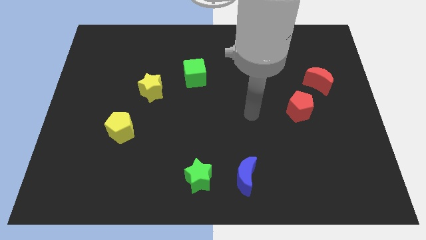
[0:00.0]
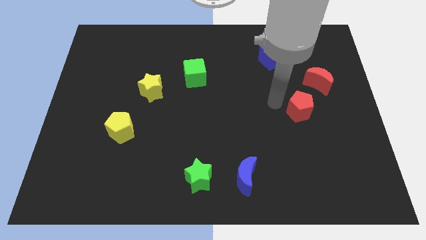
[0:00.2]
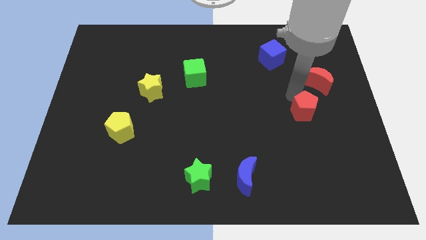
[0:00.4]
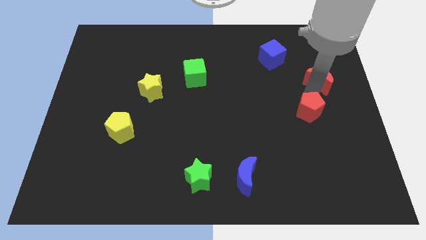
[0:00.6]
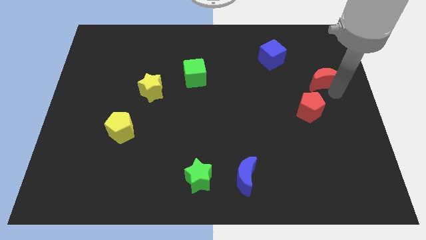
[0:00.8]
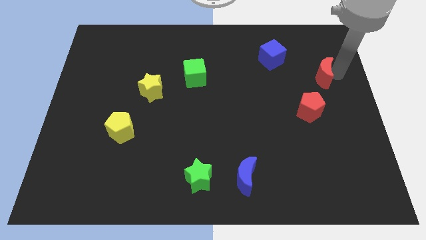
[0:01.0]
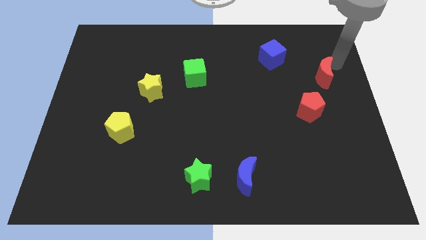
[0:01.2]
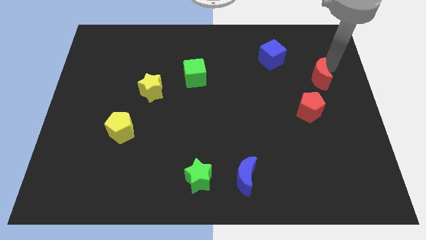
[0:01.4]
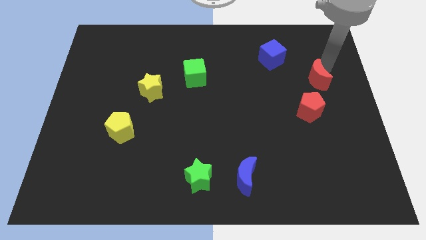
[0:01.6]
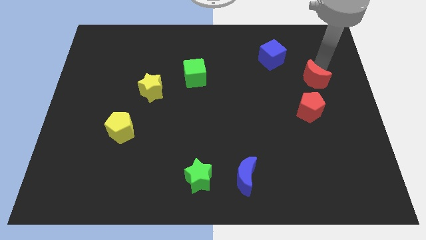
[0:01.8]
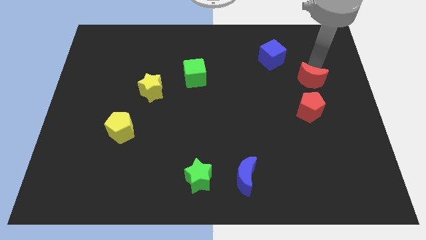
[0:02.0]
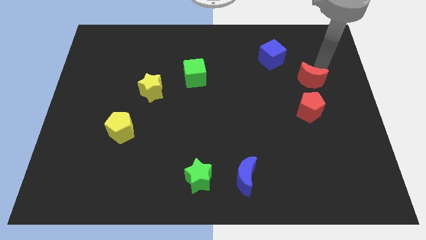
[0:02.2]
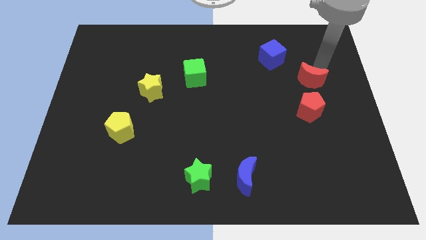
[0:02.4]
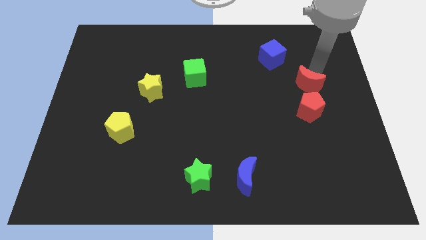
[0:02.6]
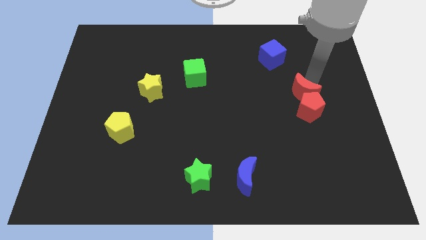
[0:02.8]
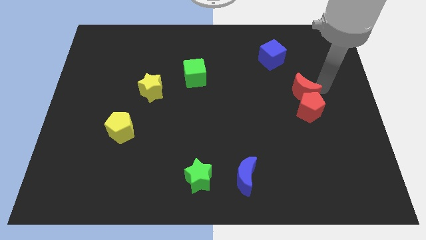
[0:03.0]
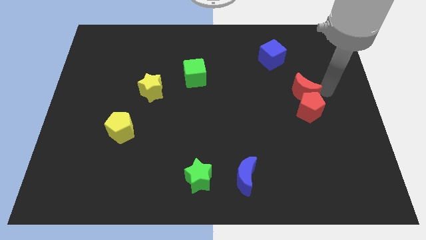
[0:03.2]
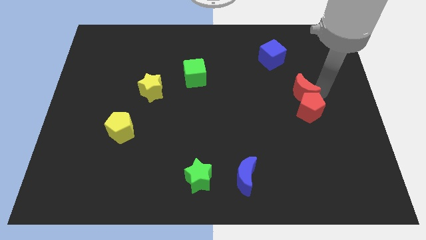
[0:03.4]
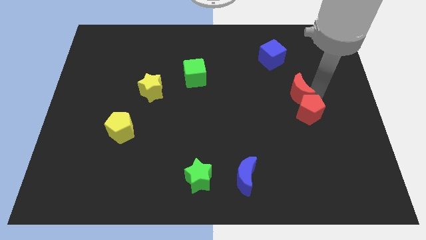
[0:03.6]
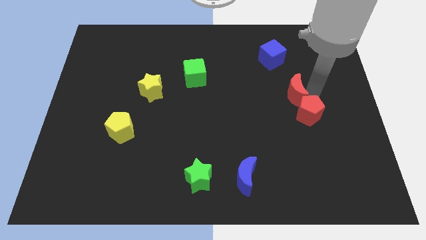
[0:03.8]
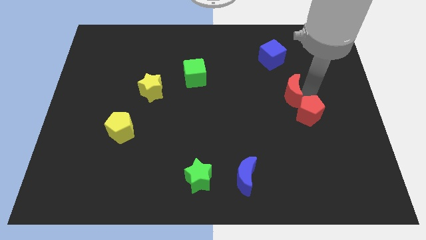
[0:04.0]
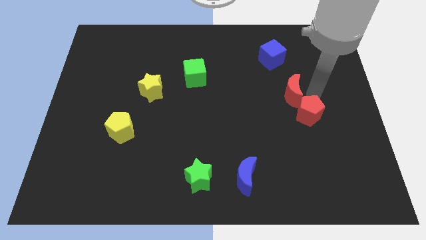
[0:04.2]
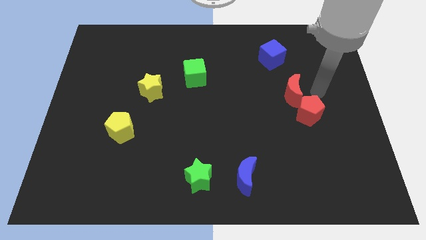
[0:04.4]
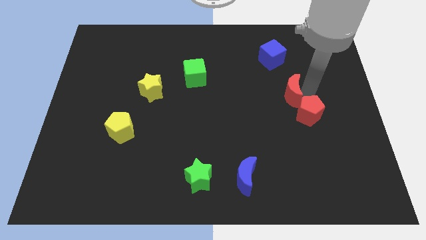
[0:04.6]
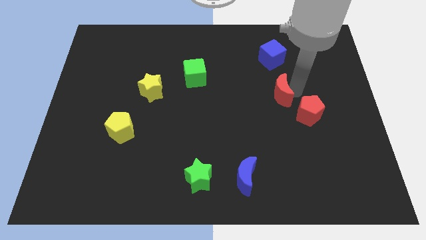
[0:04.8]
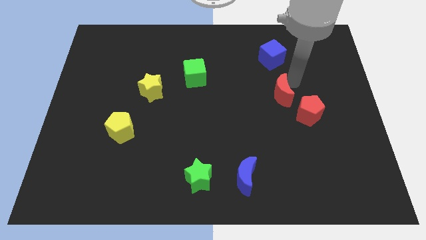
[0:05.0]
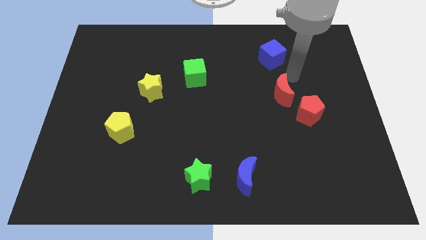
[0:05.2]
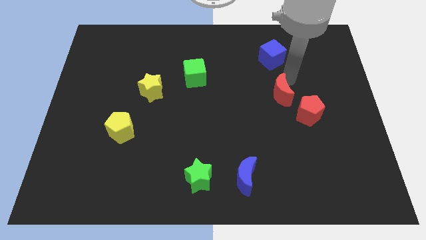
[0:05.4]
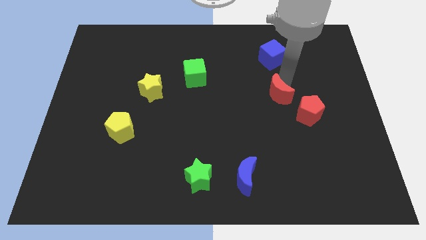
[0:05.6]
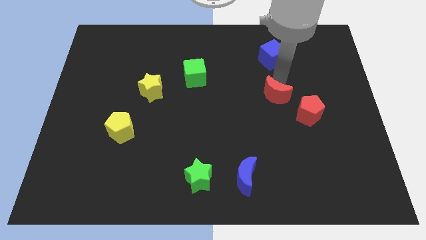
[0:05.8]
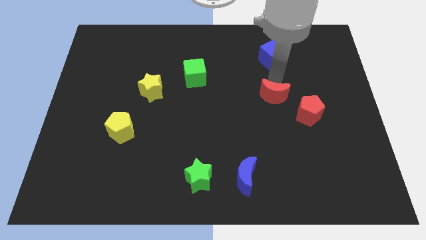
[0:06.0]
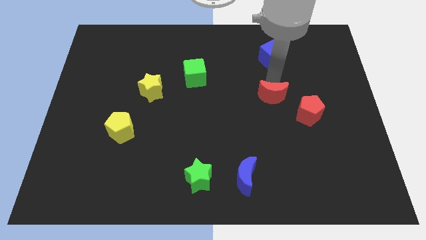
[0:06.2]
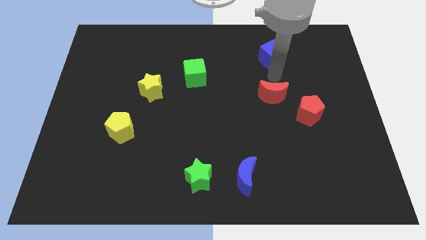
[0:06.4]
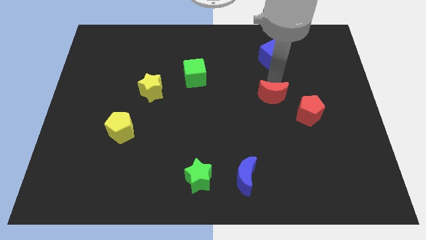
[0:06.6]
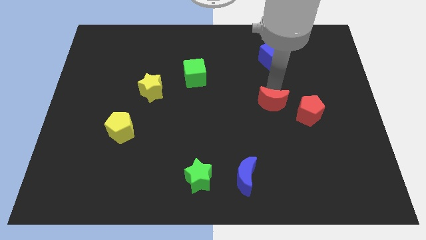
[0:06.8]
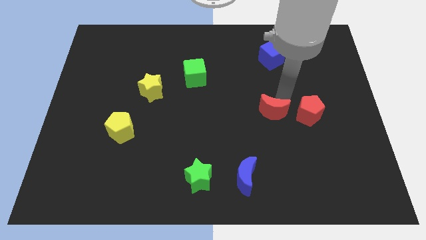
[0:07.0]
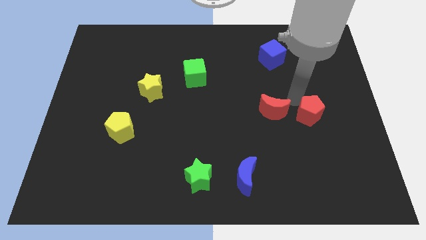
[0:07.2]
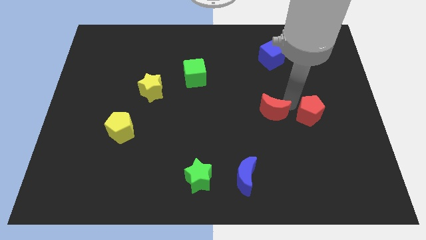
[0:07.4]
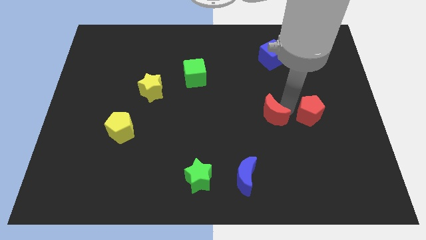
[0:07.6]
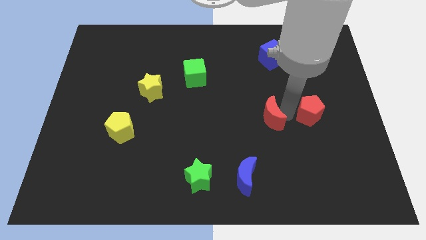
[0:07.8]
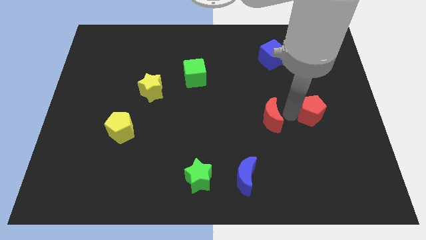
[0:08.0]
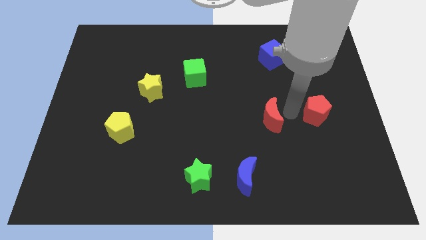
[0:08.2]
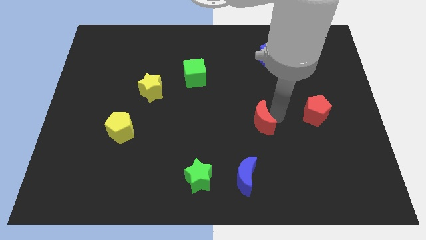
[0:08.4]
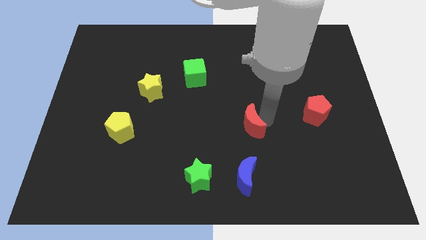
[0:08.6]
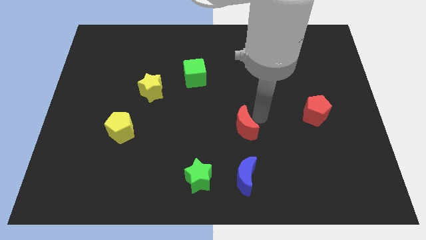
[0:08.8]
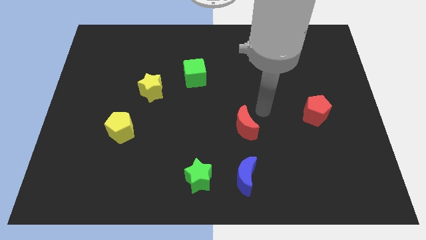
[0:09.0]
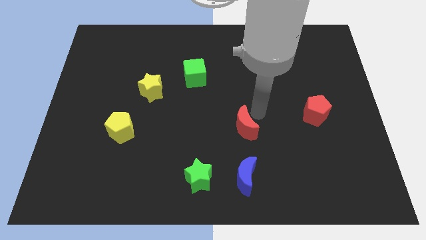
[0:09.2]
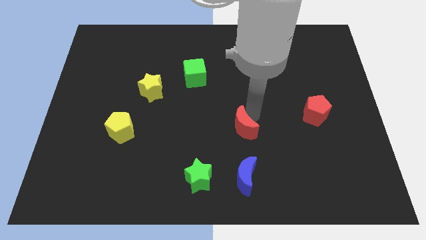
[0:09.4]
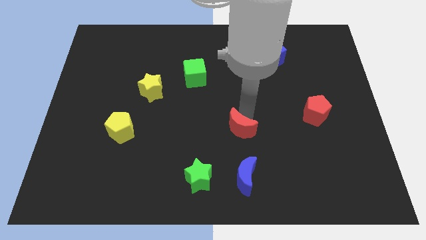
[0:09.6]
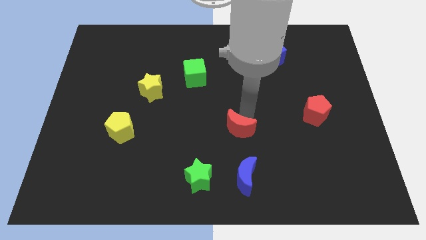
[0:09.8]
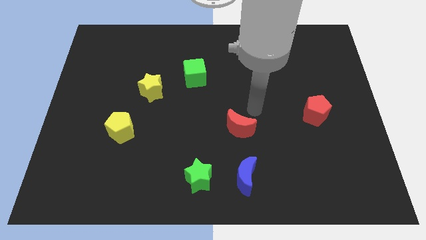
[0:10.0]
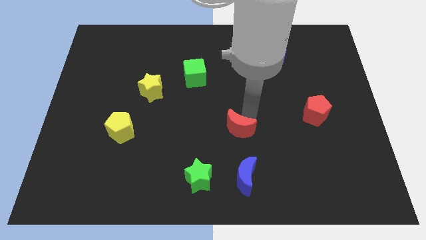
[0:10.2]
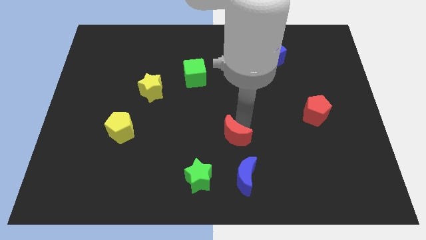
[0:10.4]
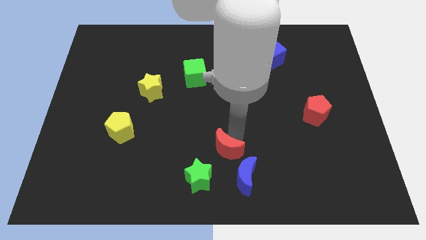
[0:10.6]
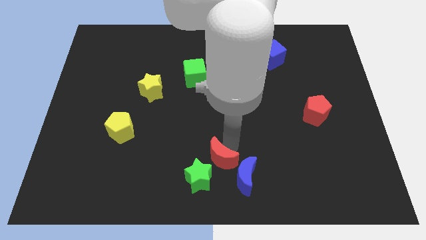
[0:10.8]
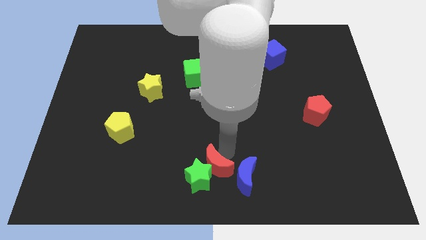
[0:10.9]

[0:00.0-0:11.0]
move the red moon to the green star

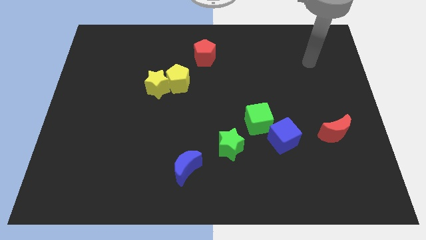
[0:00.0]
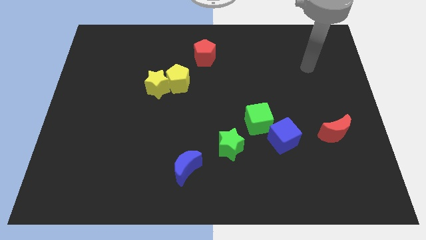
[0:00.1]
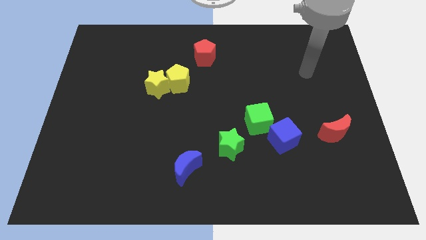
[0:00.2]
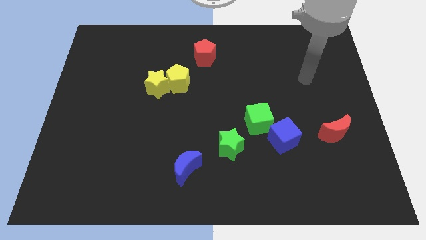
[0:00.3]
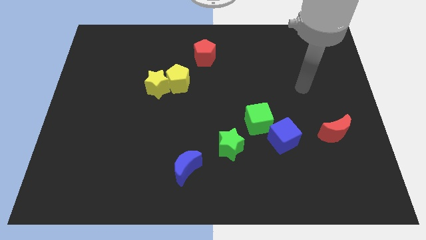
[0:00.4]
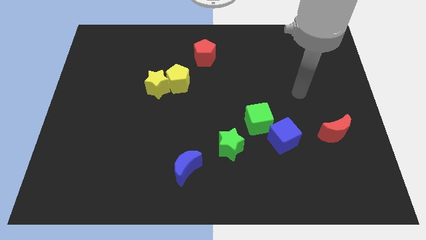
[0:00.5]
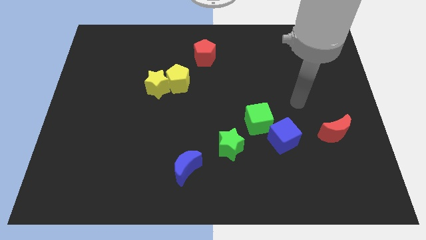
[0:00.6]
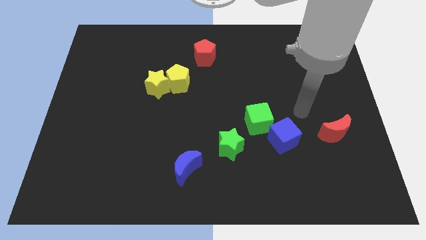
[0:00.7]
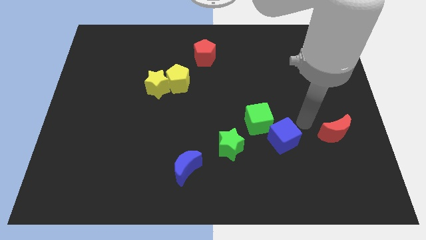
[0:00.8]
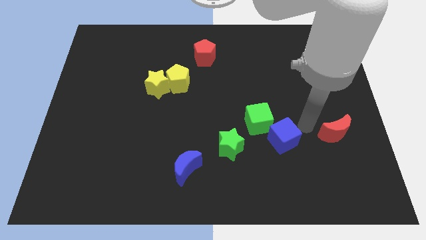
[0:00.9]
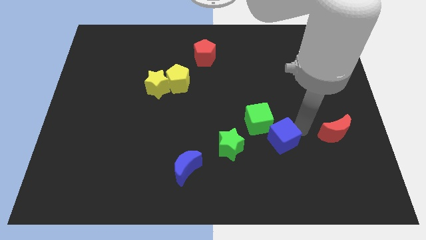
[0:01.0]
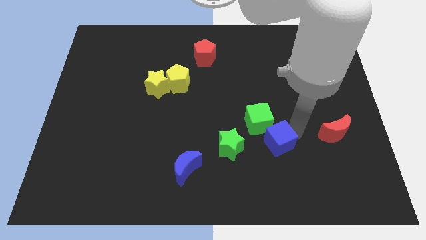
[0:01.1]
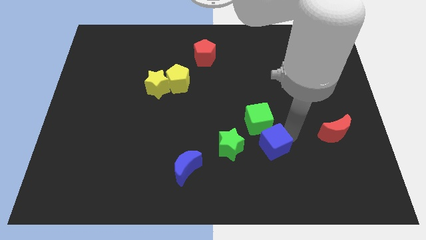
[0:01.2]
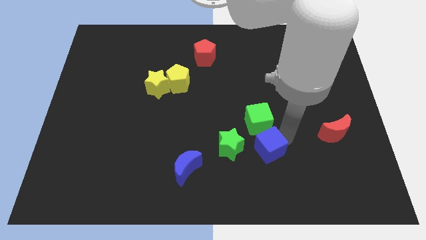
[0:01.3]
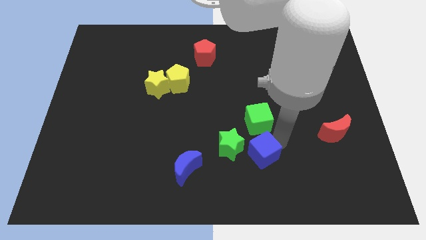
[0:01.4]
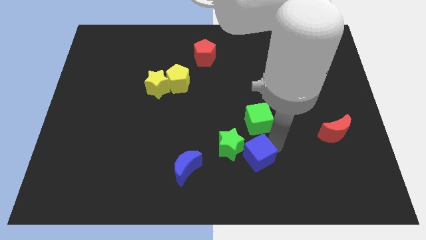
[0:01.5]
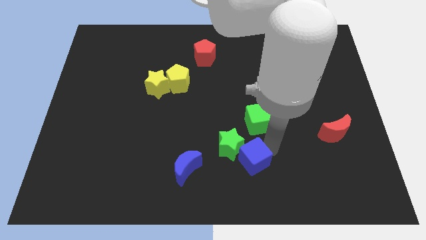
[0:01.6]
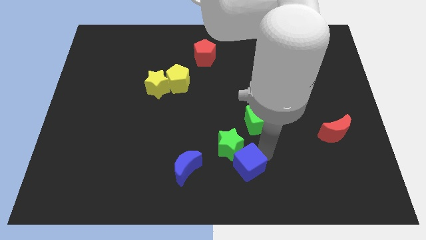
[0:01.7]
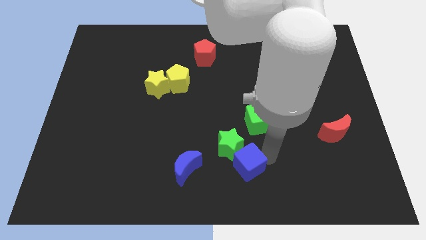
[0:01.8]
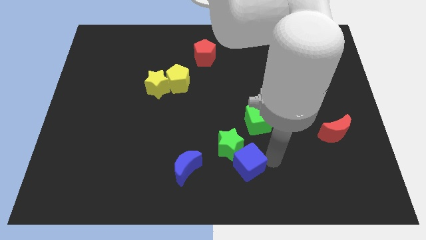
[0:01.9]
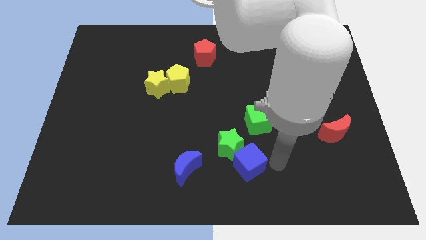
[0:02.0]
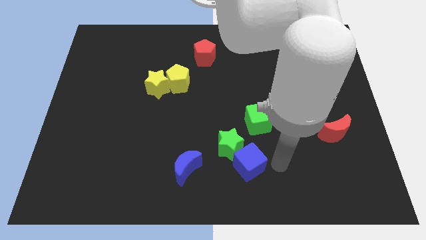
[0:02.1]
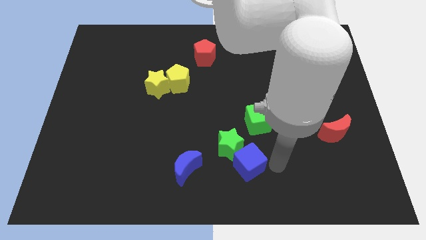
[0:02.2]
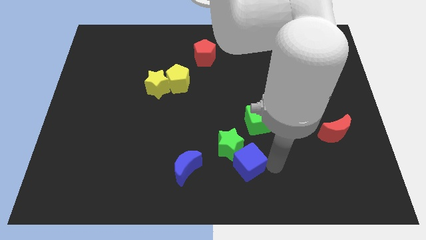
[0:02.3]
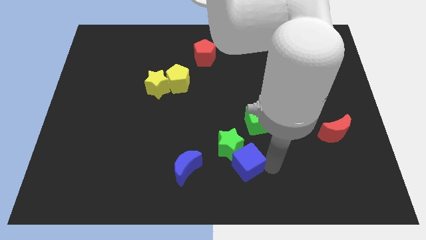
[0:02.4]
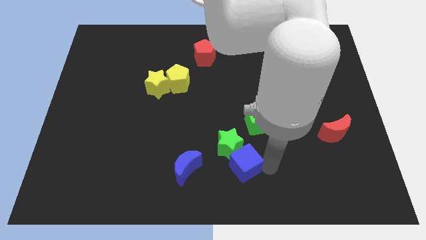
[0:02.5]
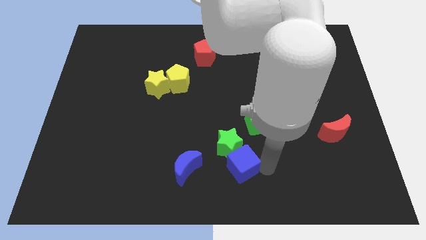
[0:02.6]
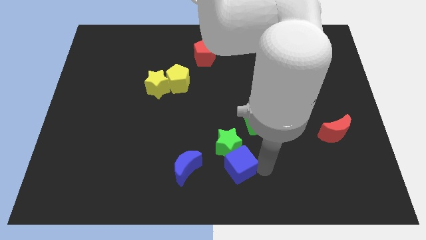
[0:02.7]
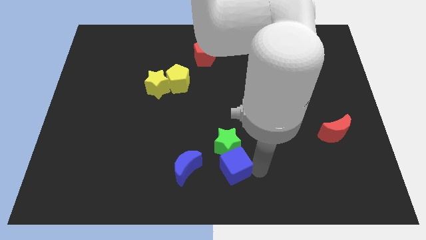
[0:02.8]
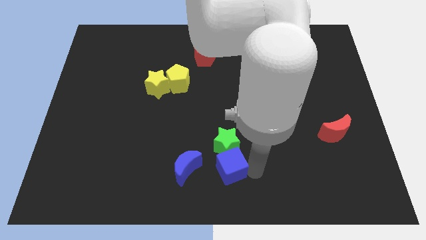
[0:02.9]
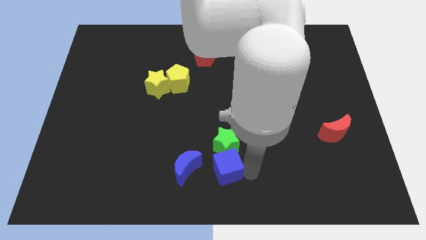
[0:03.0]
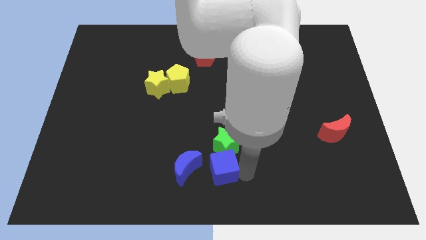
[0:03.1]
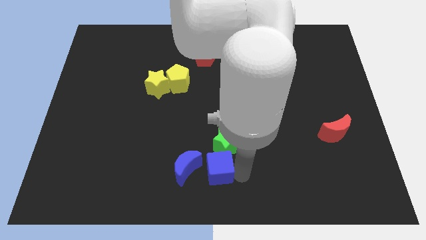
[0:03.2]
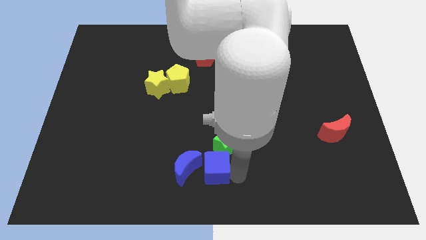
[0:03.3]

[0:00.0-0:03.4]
slide the blue cube close to the blue moon
